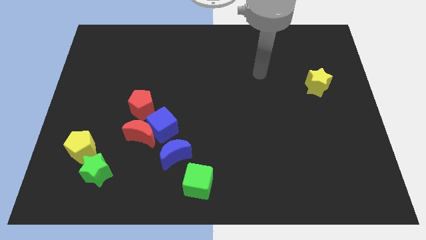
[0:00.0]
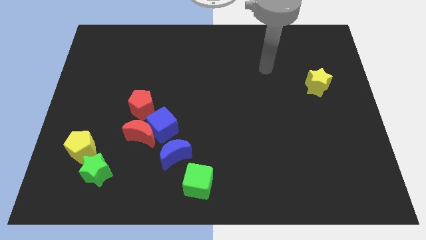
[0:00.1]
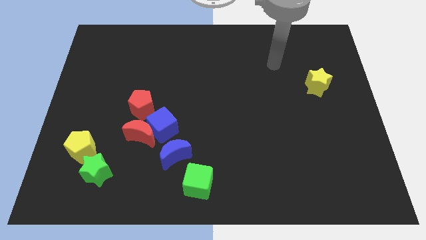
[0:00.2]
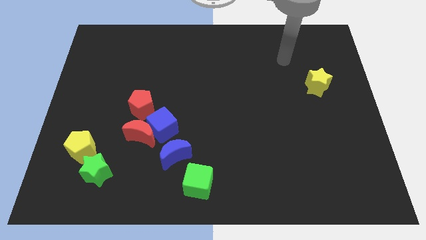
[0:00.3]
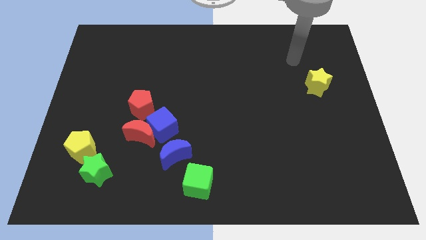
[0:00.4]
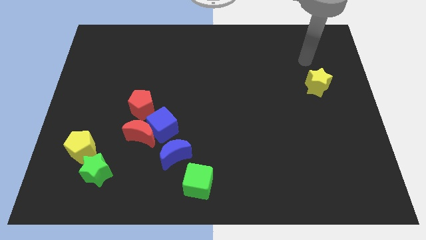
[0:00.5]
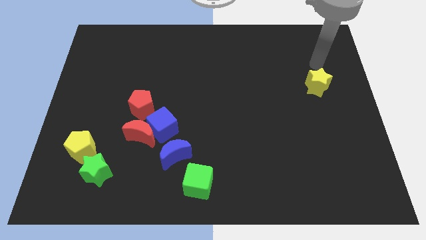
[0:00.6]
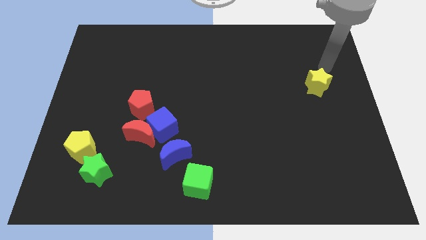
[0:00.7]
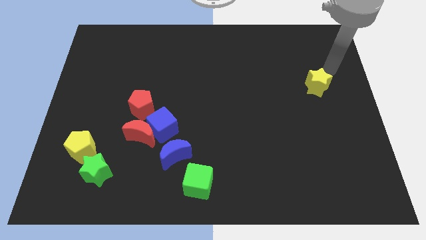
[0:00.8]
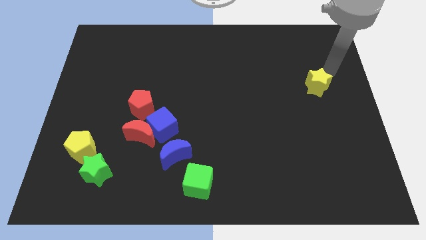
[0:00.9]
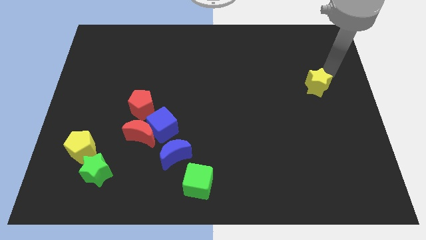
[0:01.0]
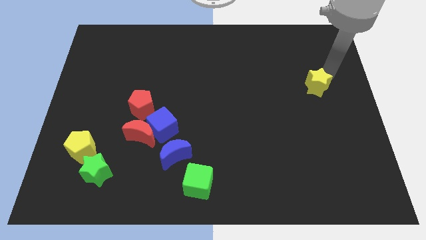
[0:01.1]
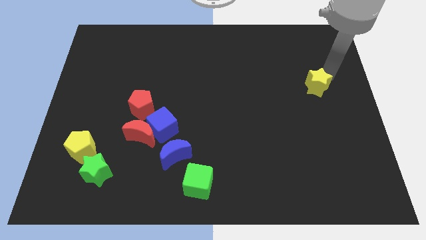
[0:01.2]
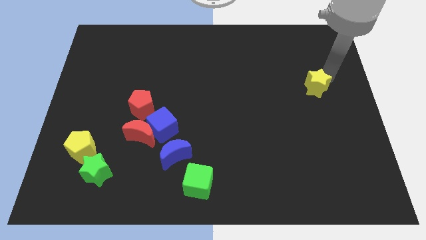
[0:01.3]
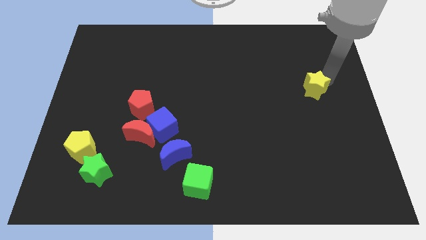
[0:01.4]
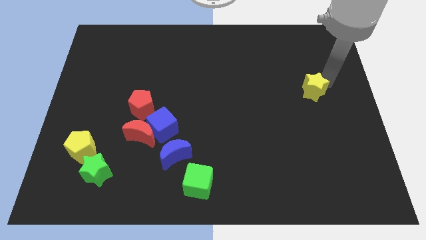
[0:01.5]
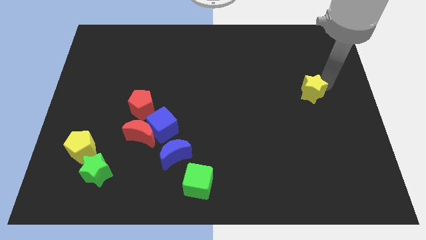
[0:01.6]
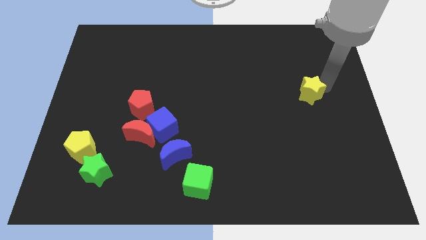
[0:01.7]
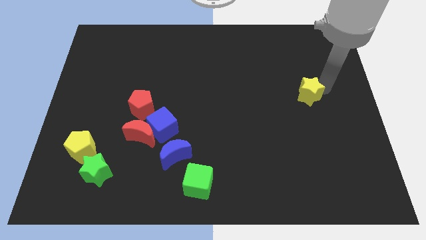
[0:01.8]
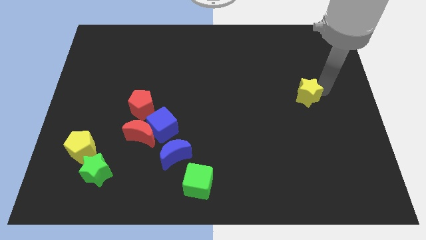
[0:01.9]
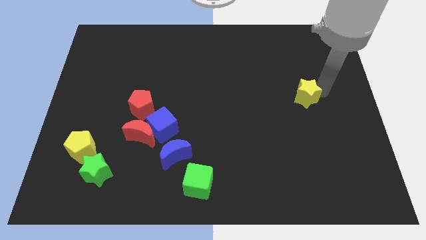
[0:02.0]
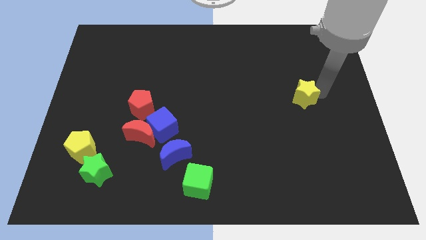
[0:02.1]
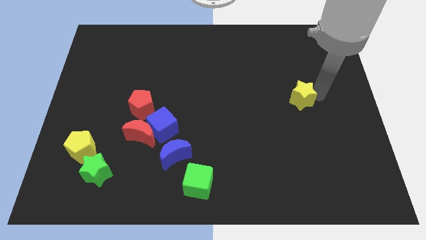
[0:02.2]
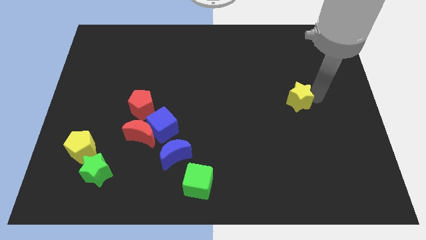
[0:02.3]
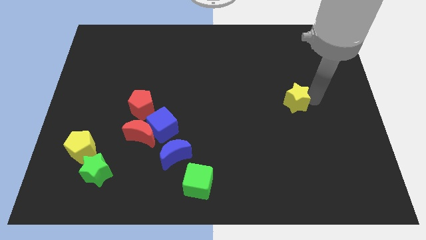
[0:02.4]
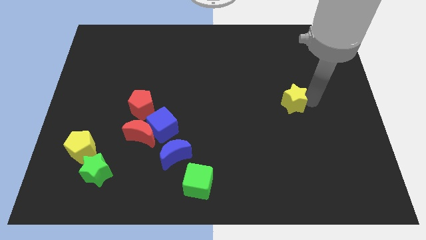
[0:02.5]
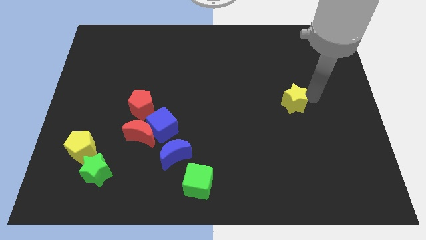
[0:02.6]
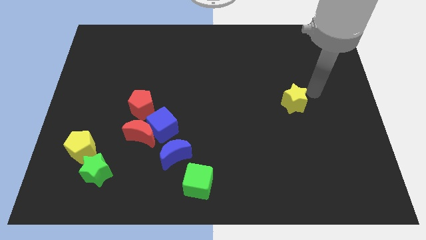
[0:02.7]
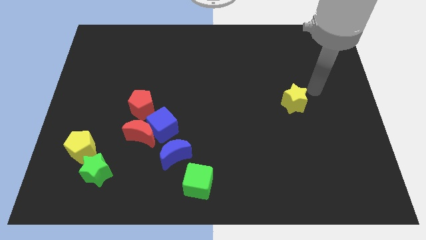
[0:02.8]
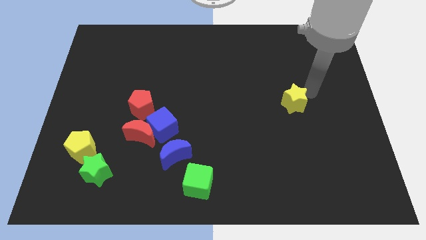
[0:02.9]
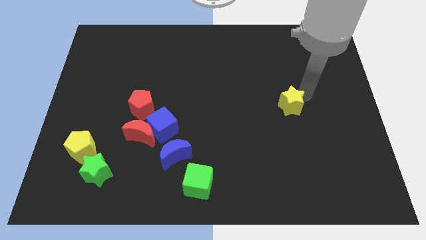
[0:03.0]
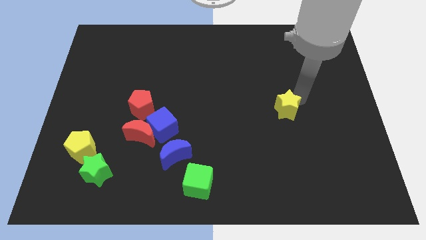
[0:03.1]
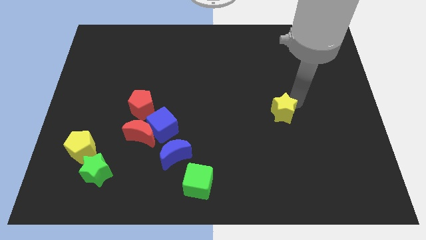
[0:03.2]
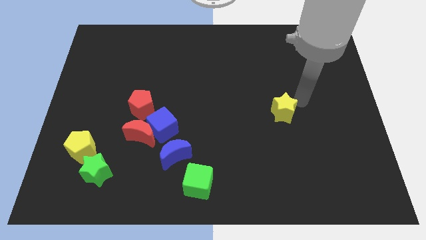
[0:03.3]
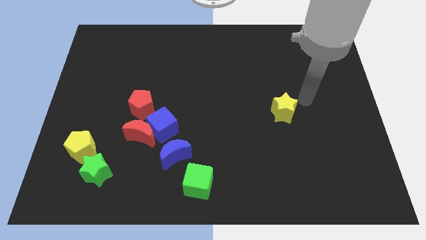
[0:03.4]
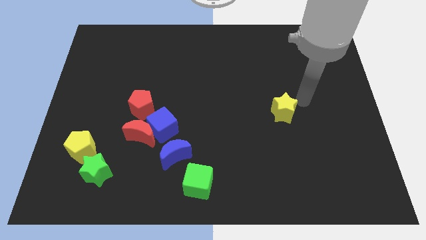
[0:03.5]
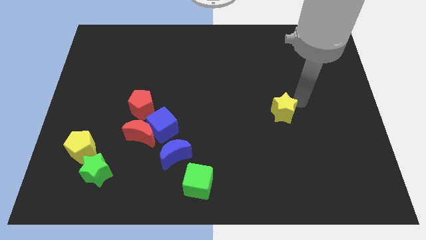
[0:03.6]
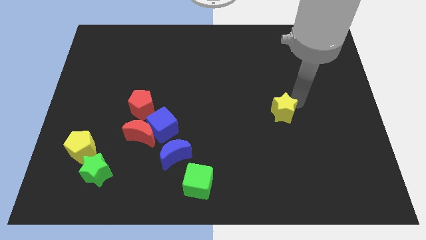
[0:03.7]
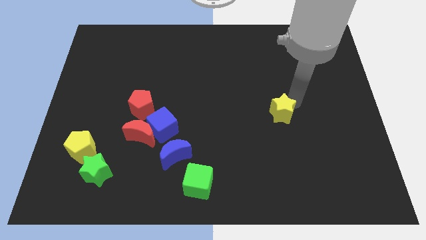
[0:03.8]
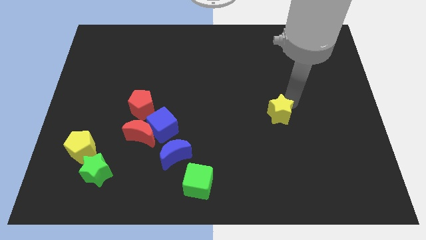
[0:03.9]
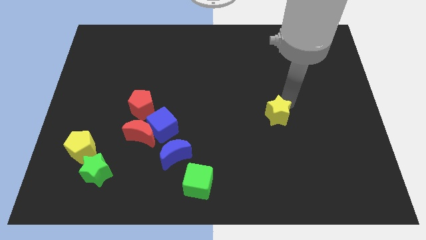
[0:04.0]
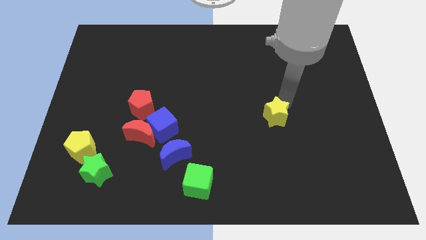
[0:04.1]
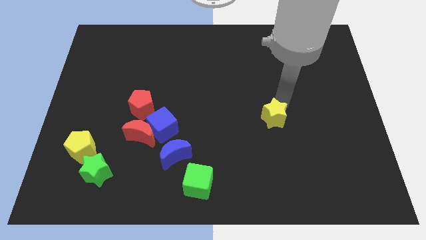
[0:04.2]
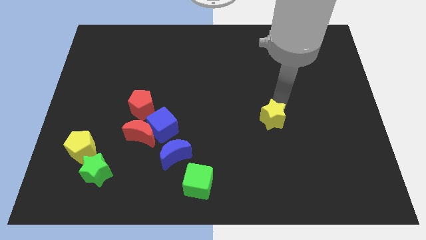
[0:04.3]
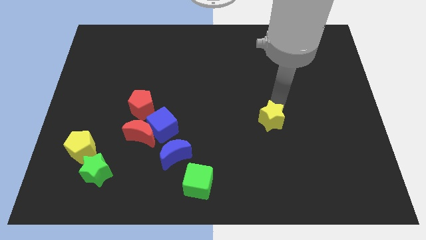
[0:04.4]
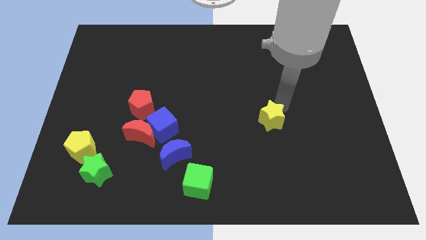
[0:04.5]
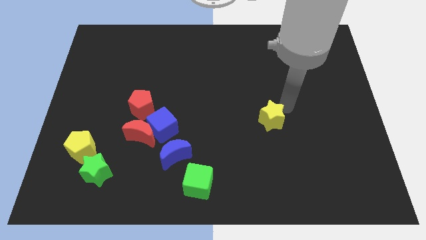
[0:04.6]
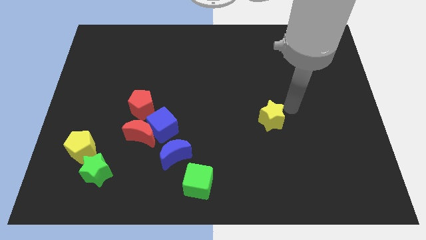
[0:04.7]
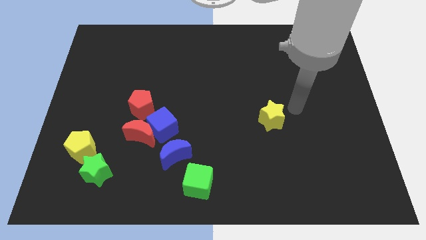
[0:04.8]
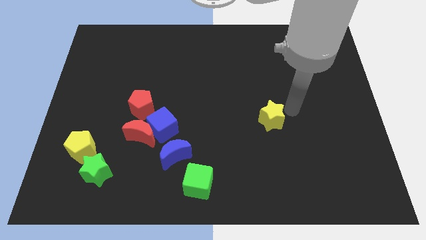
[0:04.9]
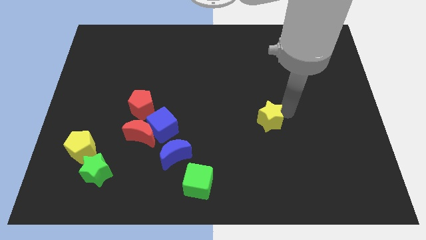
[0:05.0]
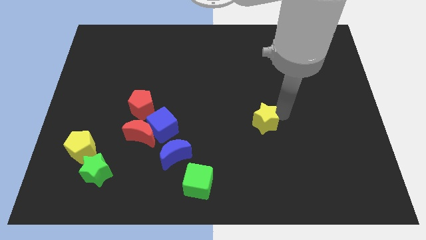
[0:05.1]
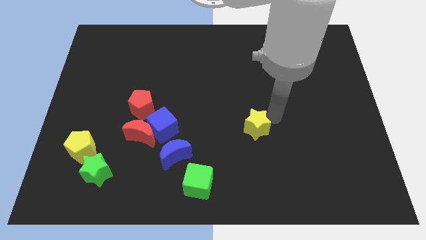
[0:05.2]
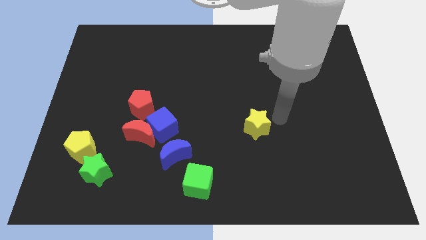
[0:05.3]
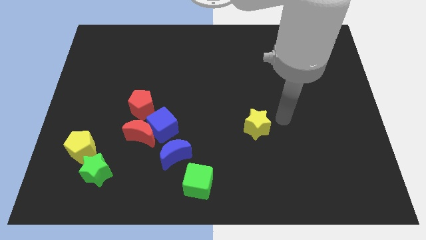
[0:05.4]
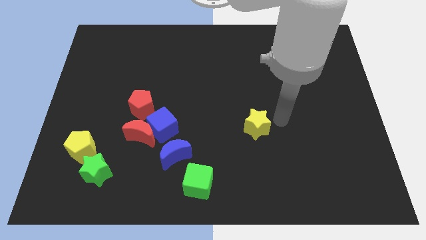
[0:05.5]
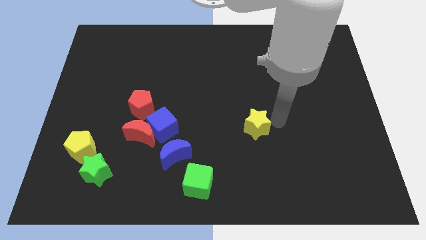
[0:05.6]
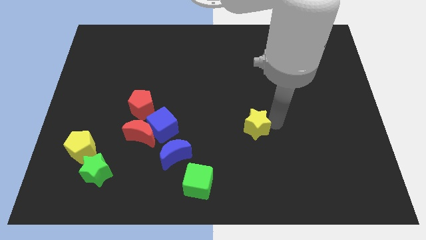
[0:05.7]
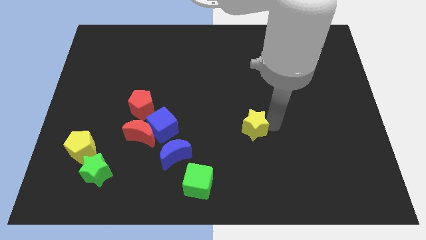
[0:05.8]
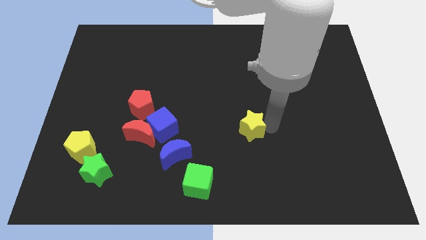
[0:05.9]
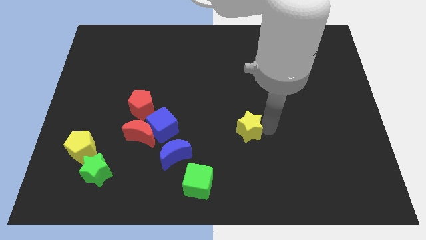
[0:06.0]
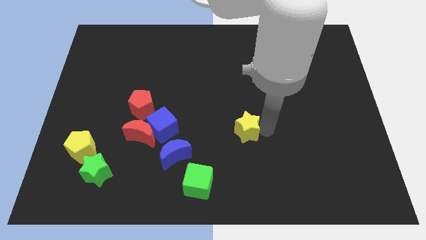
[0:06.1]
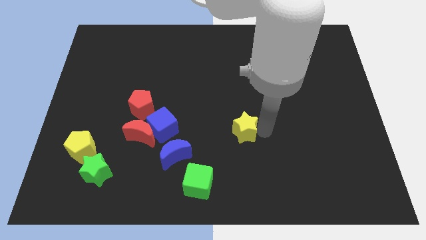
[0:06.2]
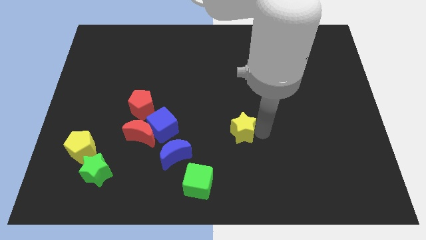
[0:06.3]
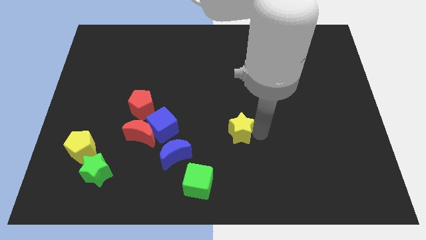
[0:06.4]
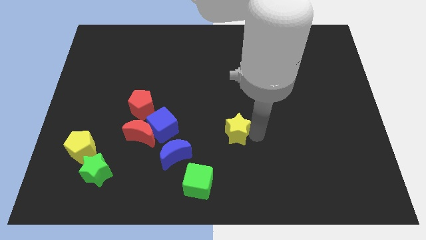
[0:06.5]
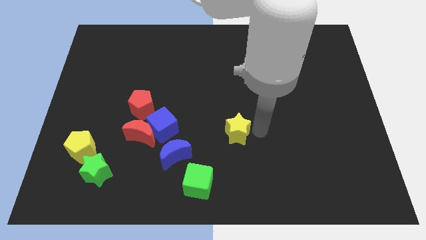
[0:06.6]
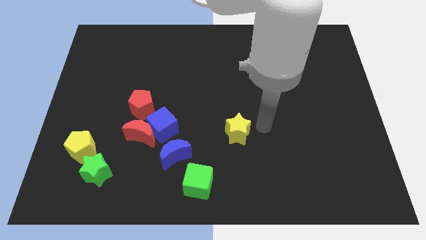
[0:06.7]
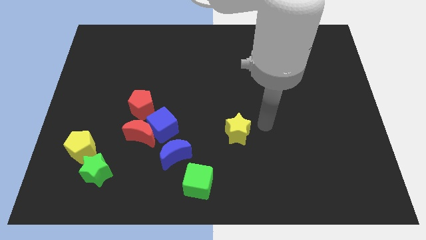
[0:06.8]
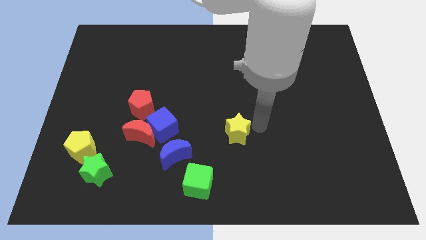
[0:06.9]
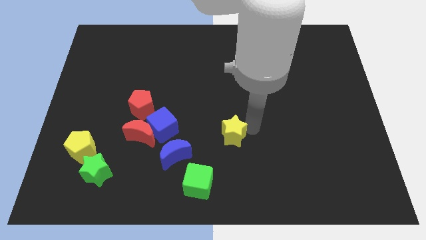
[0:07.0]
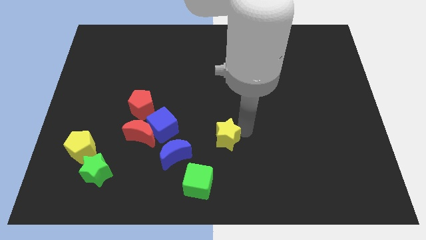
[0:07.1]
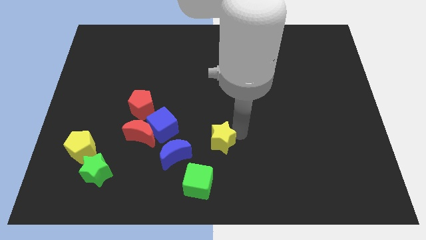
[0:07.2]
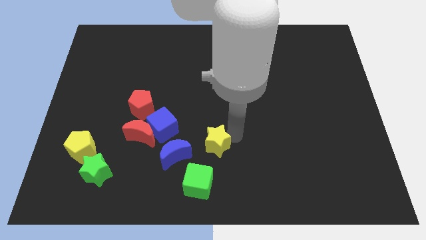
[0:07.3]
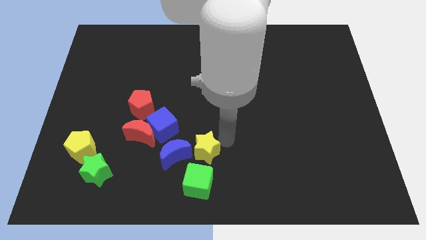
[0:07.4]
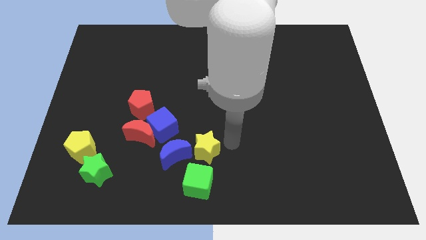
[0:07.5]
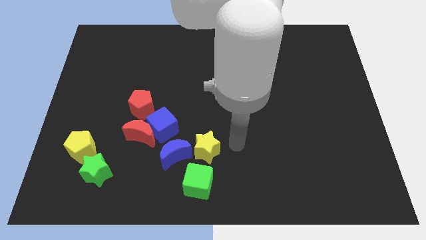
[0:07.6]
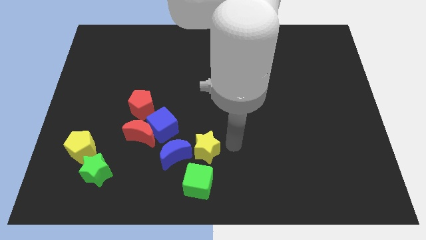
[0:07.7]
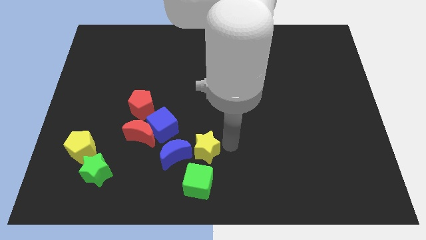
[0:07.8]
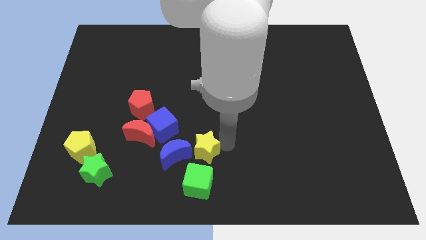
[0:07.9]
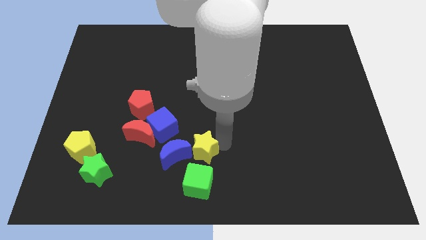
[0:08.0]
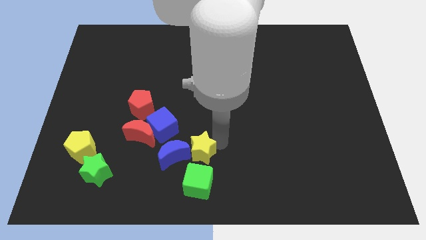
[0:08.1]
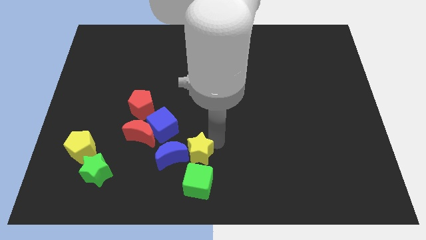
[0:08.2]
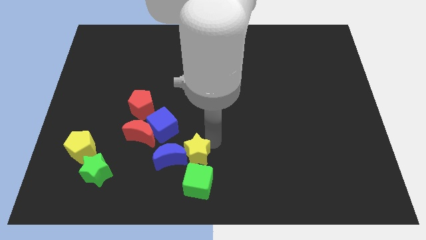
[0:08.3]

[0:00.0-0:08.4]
slide the yellow star to the blue moon
